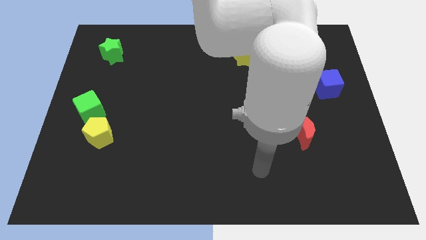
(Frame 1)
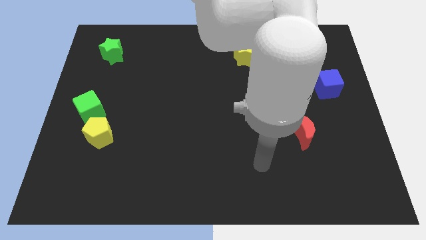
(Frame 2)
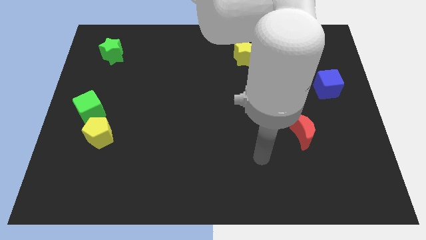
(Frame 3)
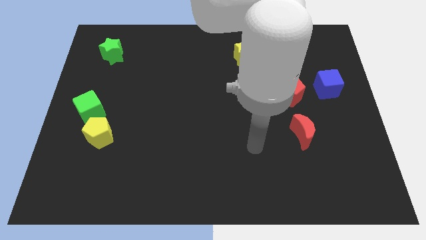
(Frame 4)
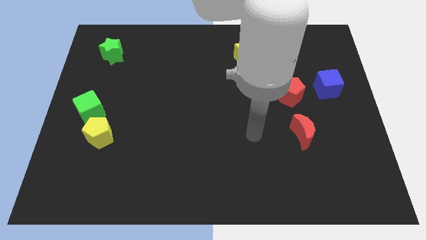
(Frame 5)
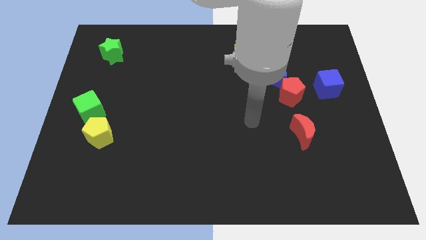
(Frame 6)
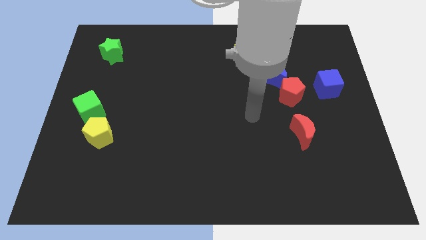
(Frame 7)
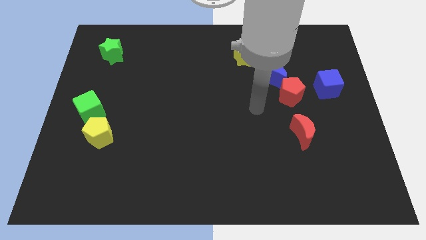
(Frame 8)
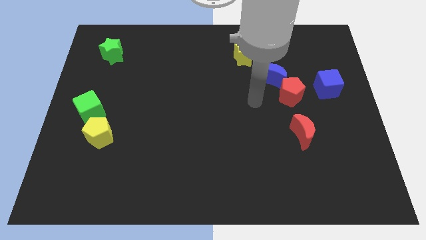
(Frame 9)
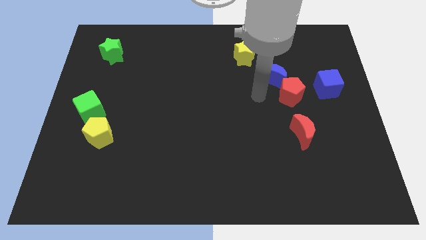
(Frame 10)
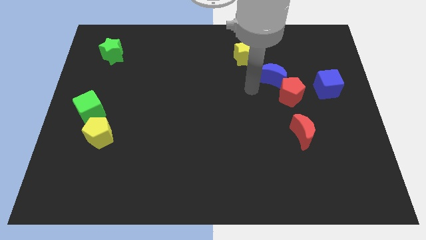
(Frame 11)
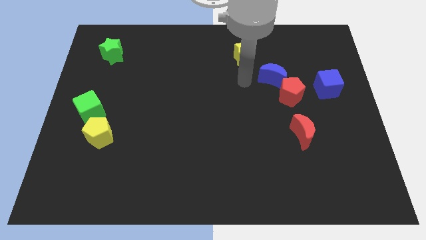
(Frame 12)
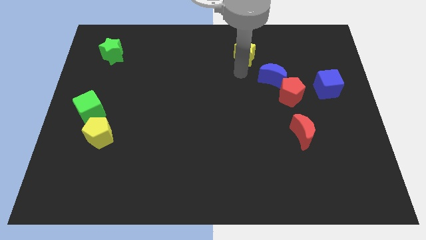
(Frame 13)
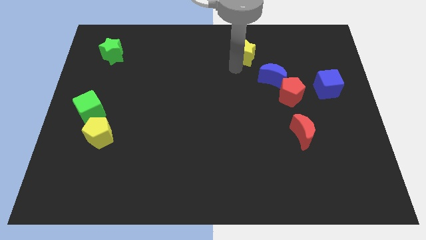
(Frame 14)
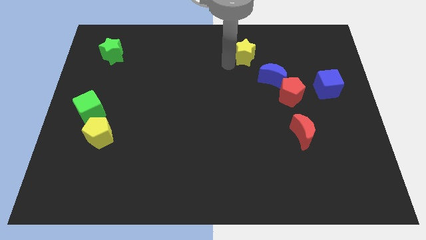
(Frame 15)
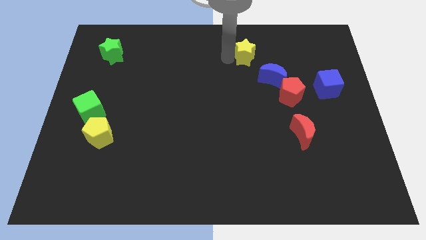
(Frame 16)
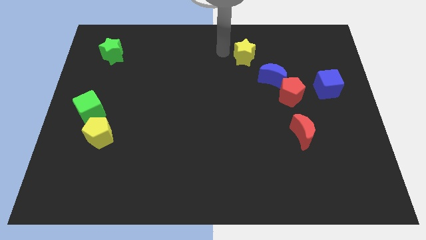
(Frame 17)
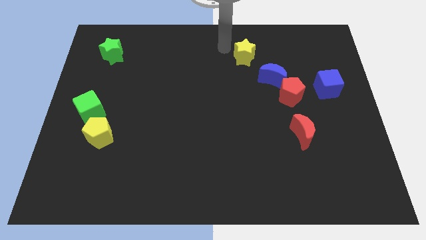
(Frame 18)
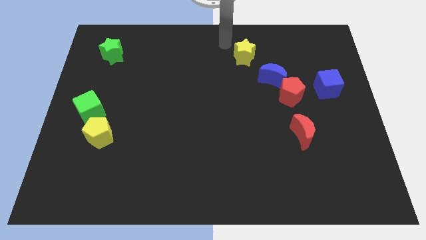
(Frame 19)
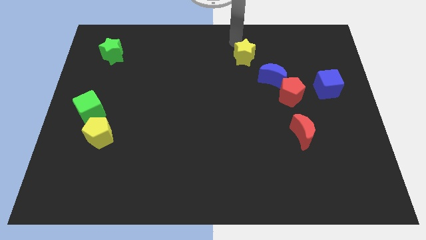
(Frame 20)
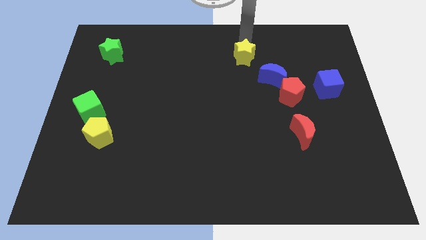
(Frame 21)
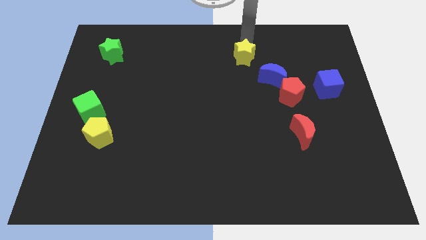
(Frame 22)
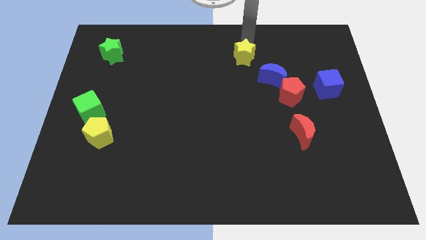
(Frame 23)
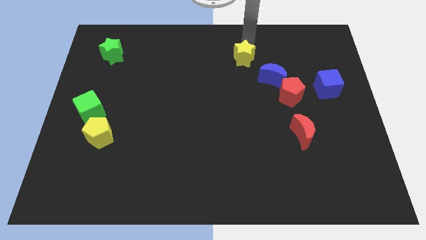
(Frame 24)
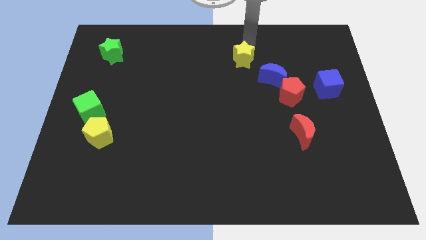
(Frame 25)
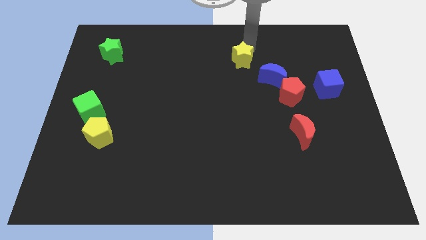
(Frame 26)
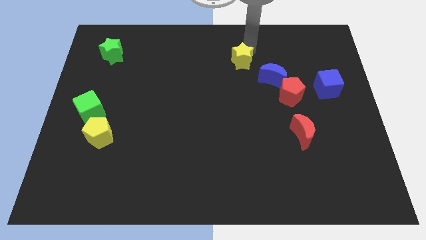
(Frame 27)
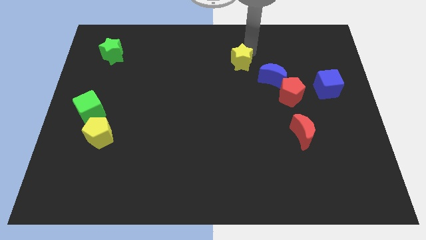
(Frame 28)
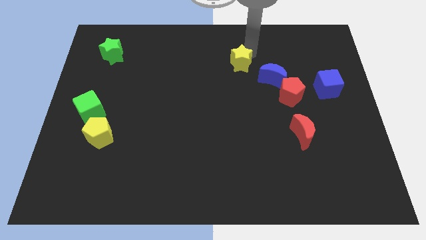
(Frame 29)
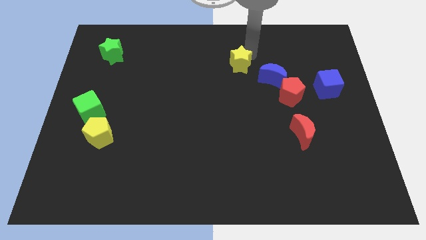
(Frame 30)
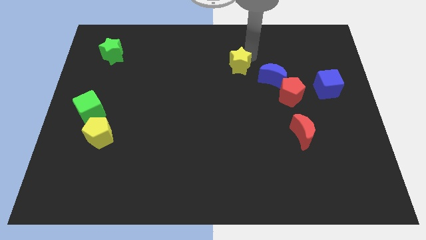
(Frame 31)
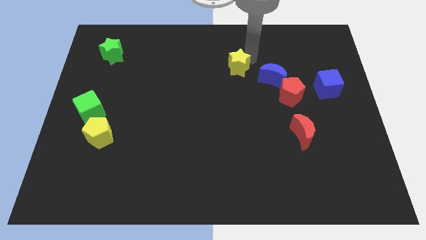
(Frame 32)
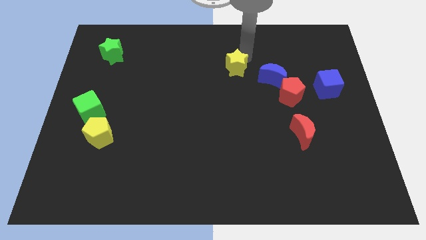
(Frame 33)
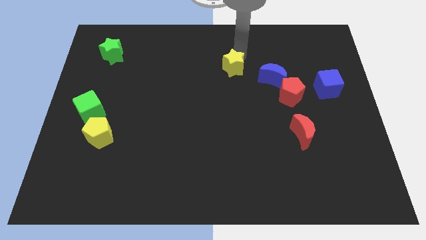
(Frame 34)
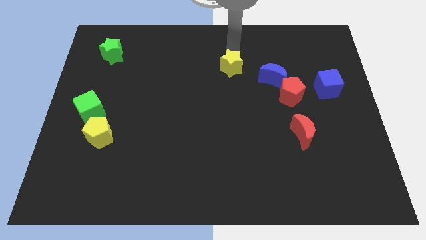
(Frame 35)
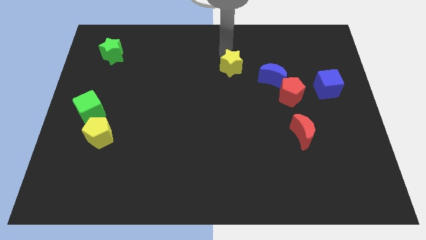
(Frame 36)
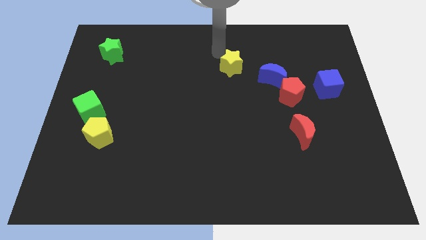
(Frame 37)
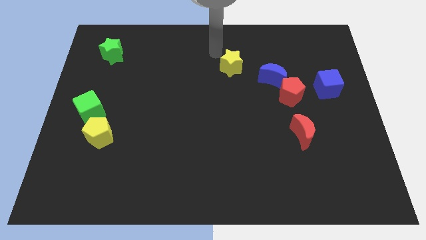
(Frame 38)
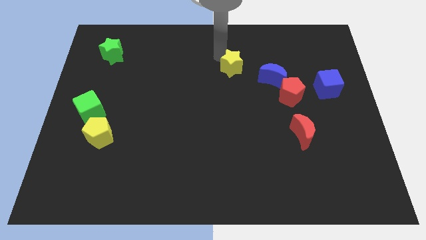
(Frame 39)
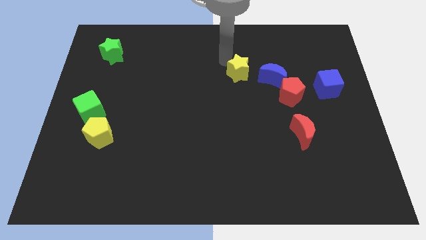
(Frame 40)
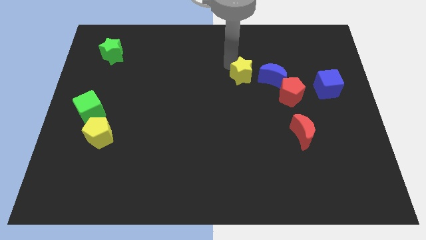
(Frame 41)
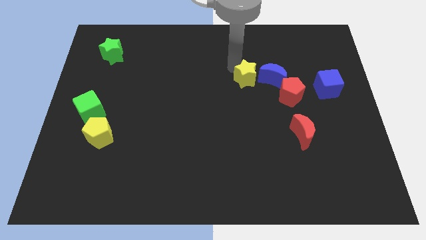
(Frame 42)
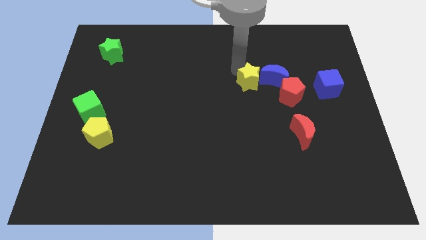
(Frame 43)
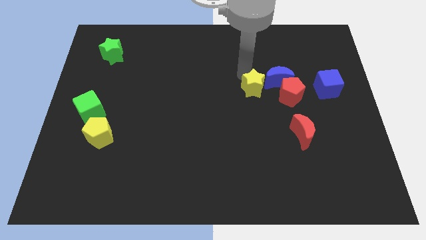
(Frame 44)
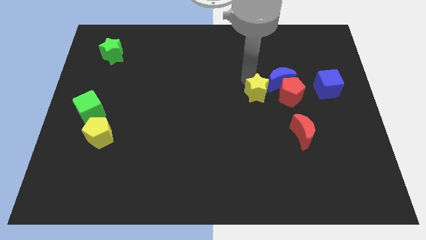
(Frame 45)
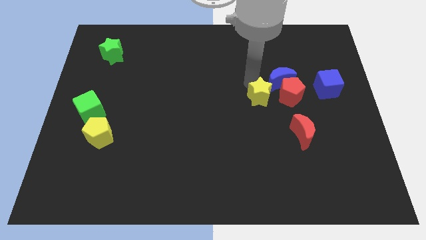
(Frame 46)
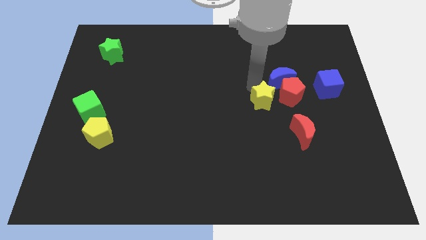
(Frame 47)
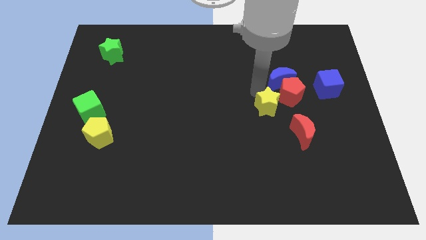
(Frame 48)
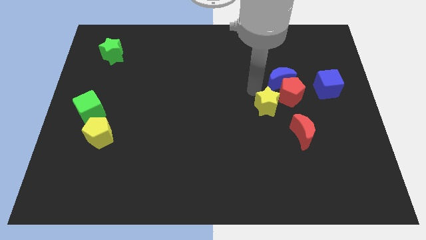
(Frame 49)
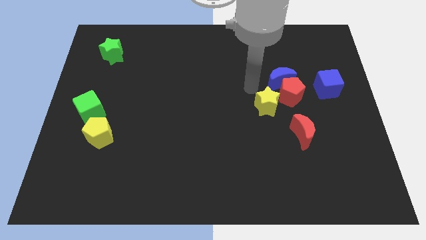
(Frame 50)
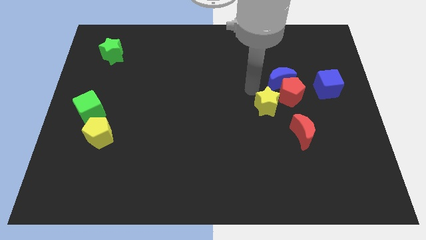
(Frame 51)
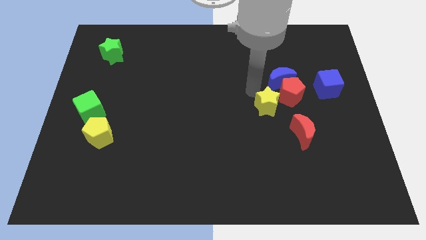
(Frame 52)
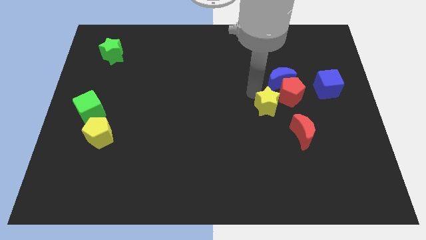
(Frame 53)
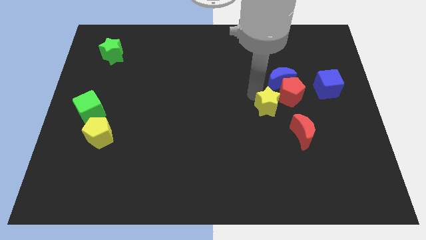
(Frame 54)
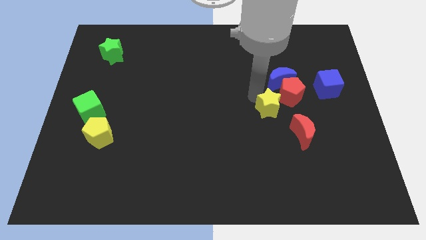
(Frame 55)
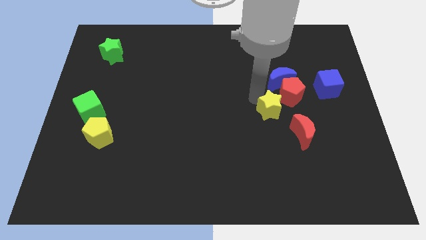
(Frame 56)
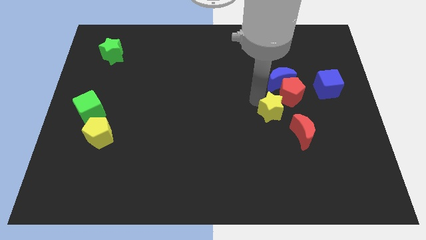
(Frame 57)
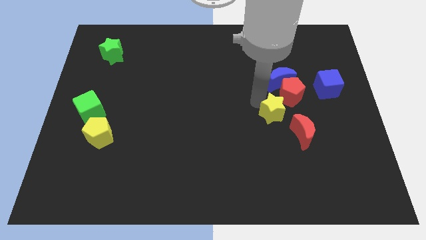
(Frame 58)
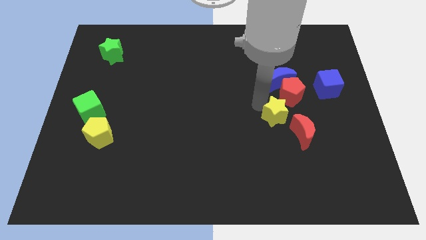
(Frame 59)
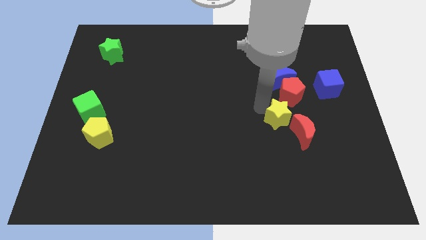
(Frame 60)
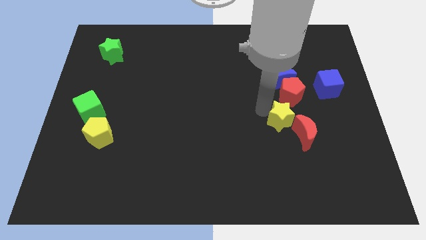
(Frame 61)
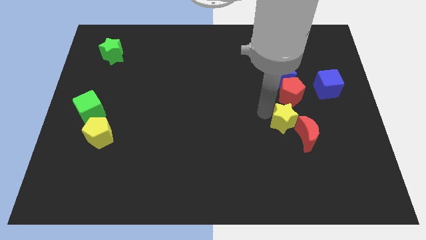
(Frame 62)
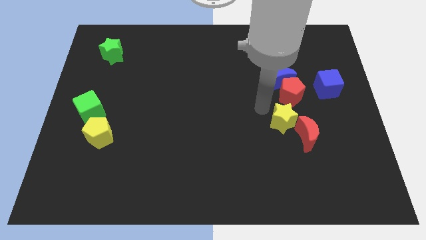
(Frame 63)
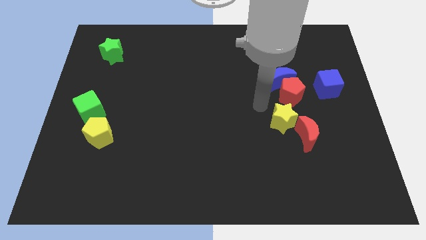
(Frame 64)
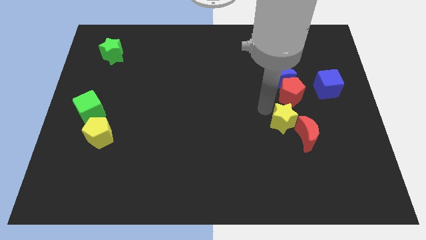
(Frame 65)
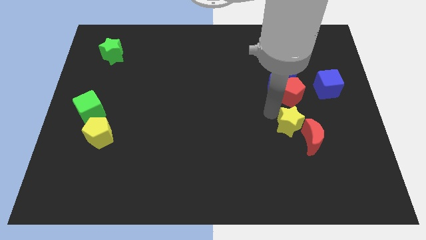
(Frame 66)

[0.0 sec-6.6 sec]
move the yellow star to the red moon

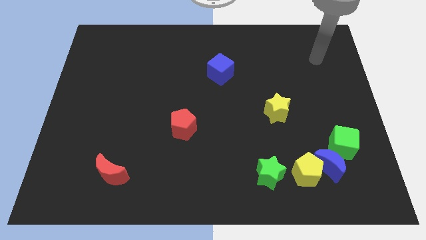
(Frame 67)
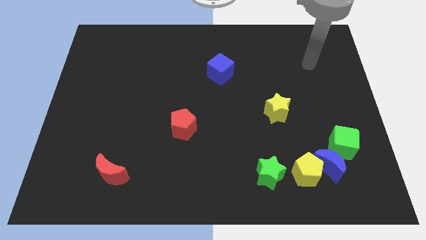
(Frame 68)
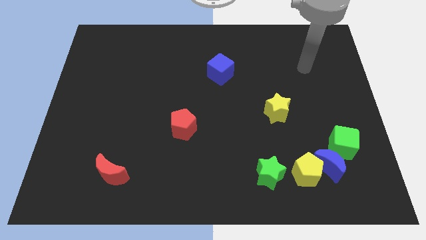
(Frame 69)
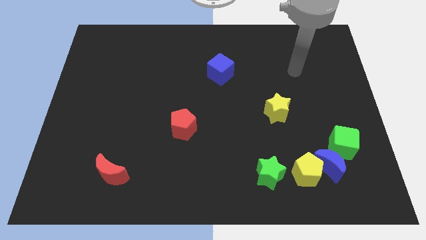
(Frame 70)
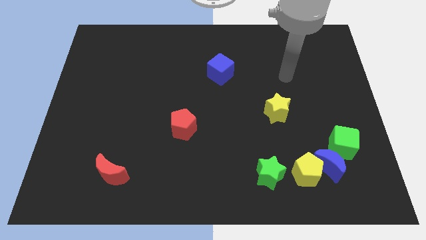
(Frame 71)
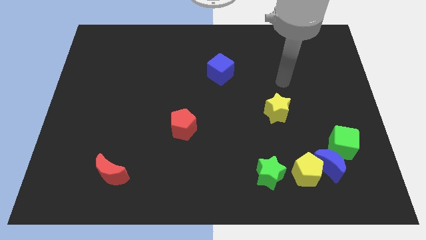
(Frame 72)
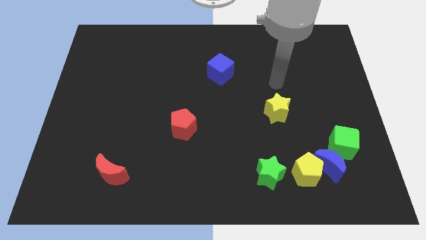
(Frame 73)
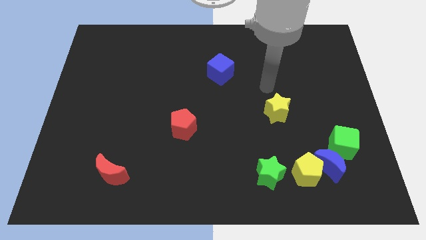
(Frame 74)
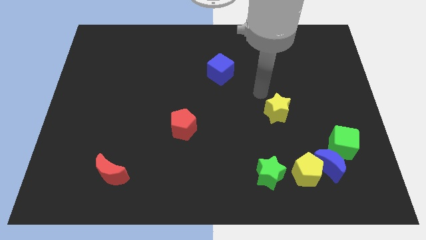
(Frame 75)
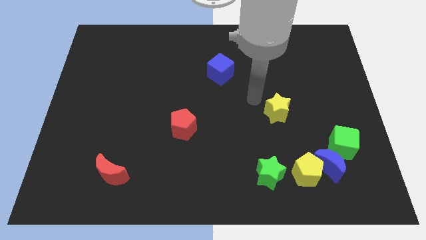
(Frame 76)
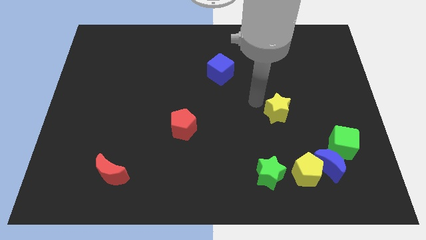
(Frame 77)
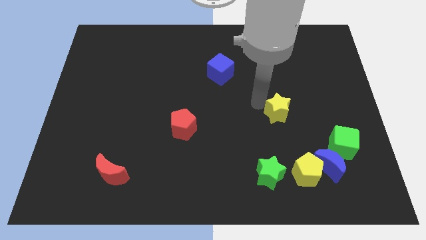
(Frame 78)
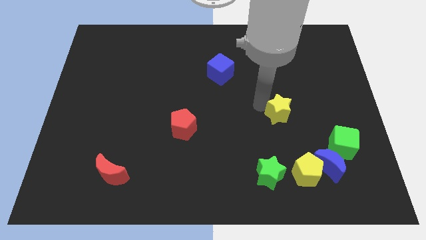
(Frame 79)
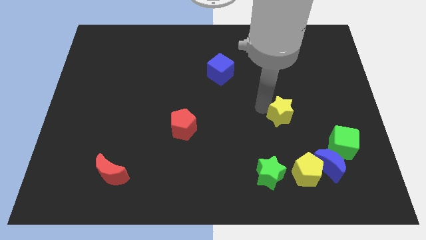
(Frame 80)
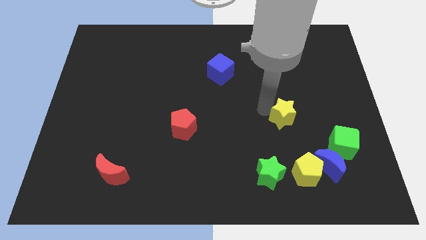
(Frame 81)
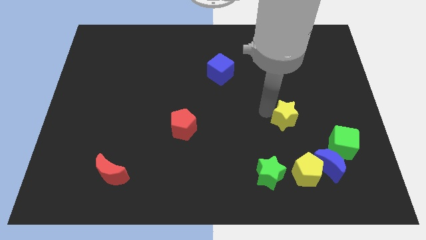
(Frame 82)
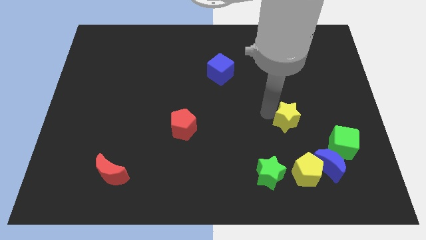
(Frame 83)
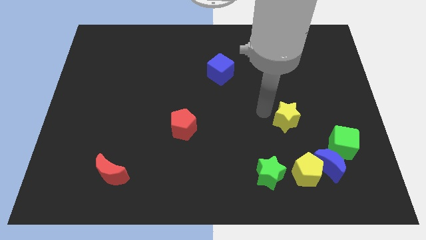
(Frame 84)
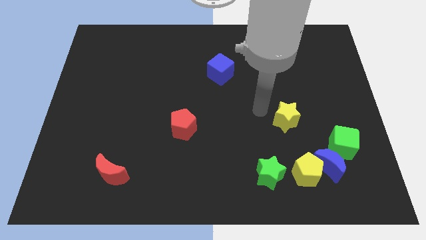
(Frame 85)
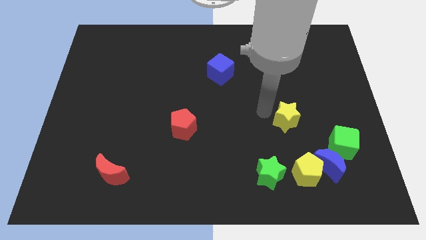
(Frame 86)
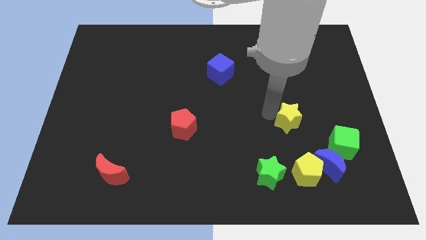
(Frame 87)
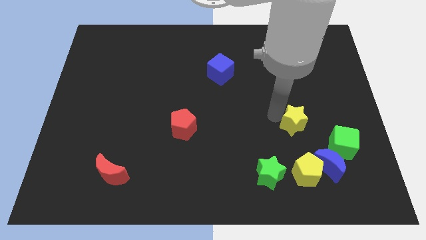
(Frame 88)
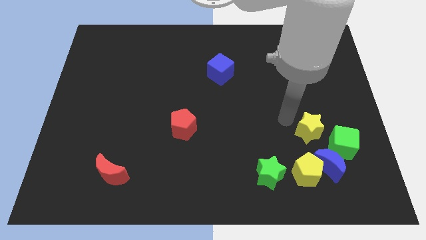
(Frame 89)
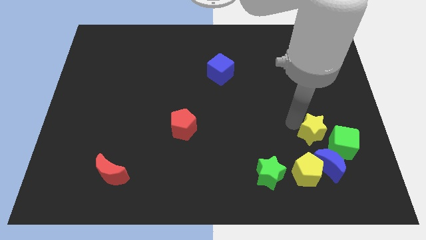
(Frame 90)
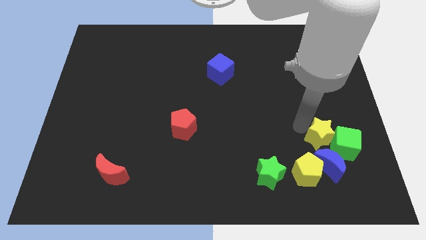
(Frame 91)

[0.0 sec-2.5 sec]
slide the yellow star next to the green cube
